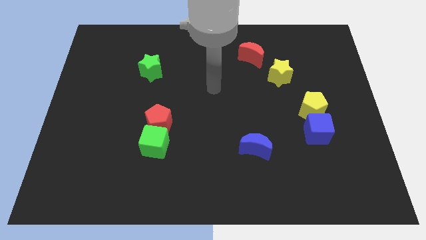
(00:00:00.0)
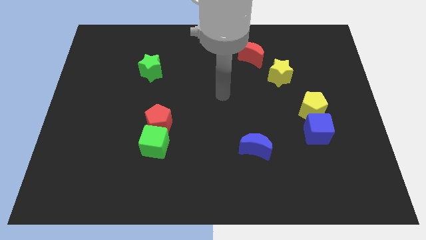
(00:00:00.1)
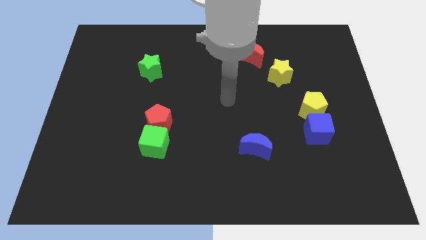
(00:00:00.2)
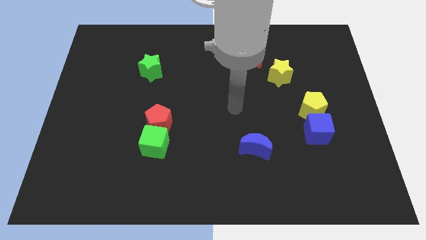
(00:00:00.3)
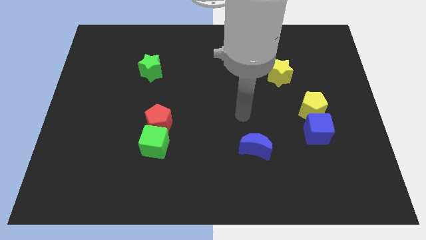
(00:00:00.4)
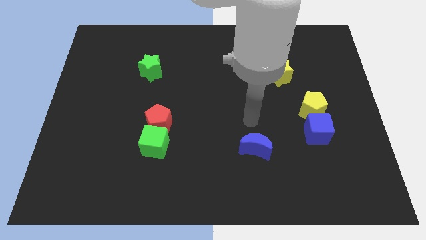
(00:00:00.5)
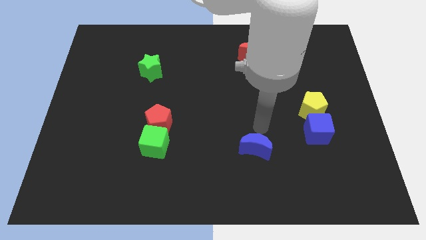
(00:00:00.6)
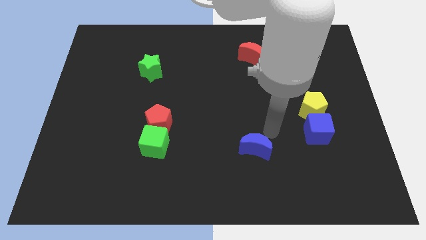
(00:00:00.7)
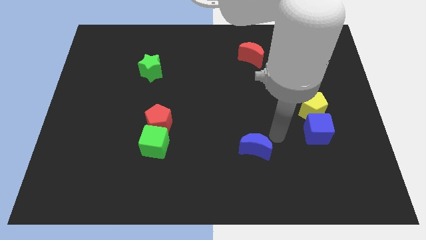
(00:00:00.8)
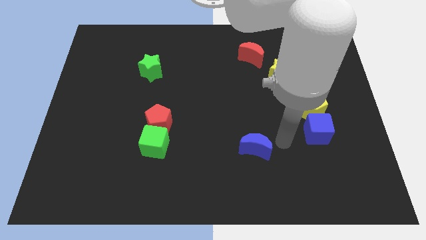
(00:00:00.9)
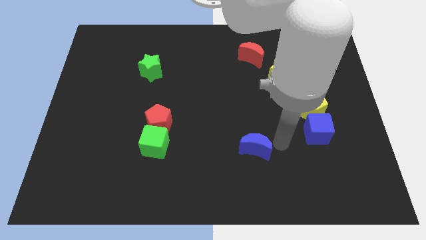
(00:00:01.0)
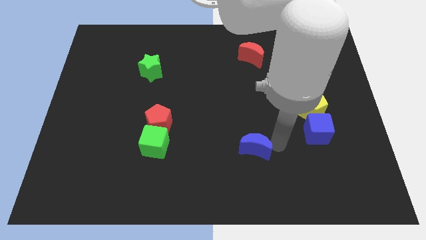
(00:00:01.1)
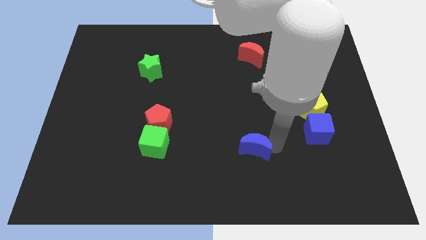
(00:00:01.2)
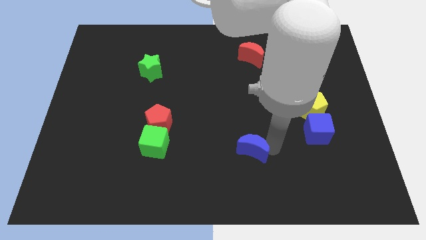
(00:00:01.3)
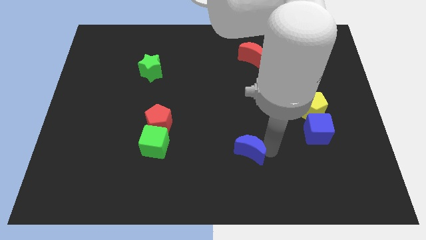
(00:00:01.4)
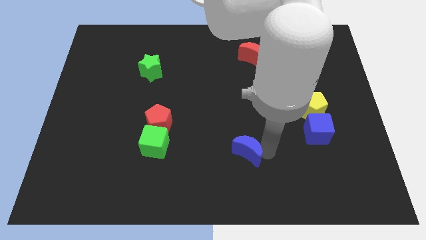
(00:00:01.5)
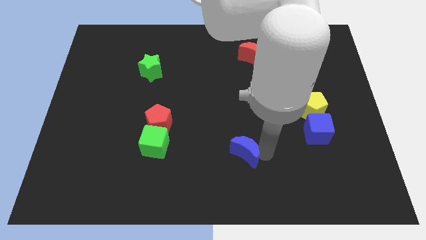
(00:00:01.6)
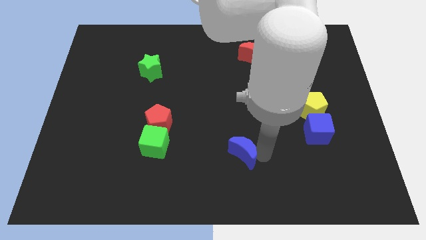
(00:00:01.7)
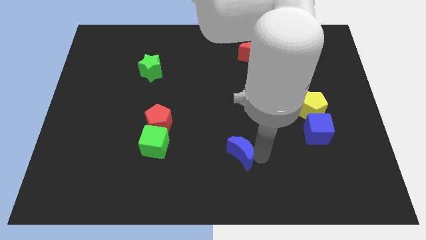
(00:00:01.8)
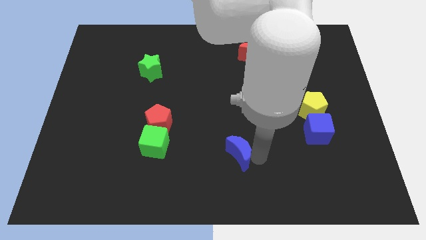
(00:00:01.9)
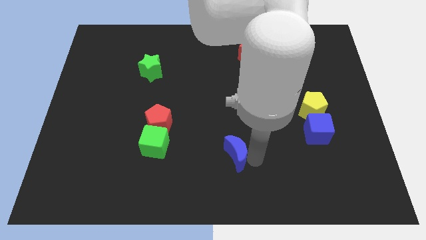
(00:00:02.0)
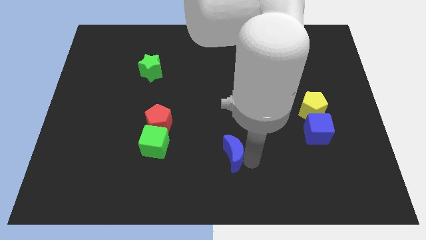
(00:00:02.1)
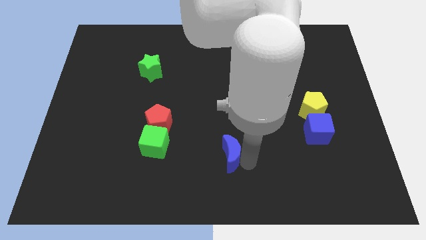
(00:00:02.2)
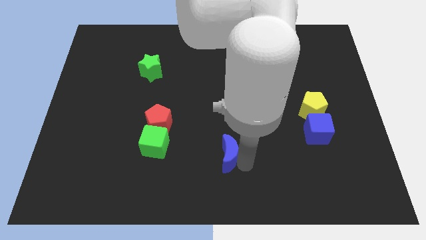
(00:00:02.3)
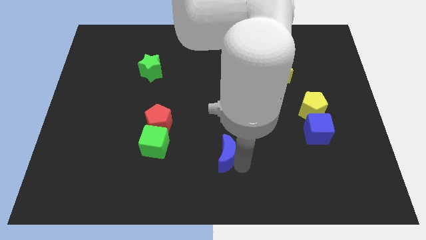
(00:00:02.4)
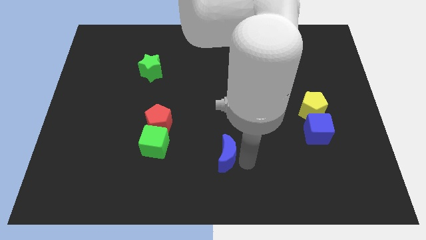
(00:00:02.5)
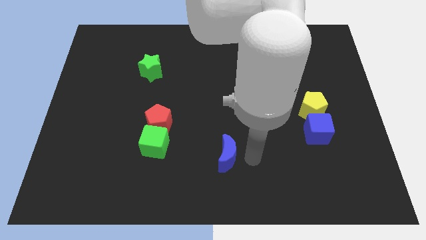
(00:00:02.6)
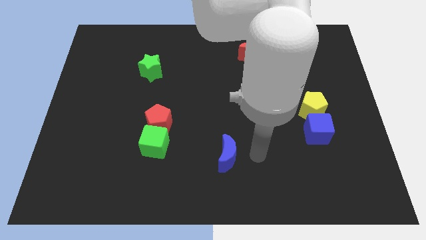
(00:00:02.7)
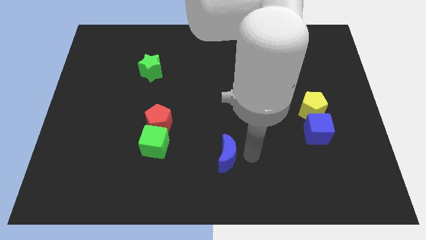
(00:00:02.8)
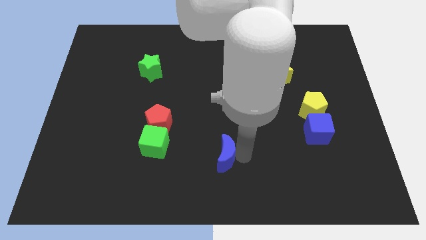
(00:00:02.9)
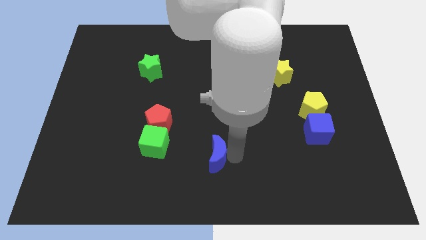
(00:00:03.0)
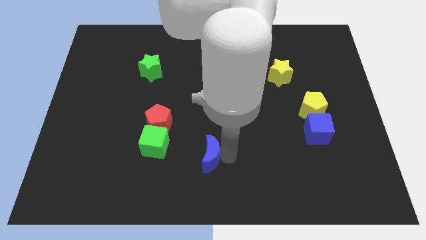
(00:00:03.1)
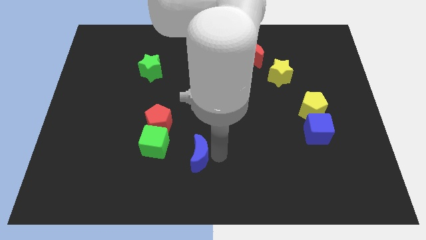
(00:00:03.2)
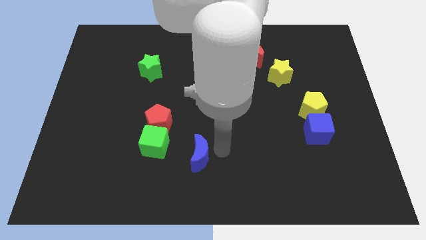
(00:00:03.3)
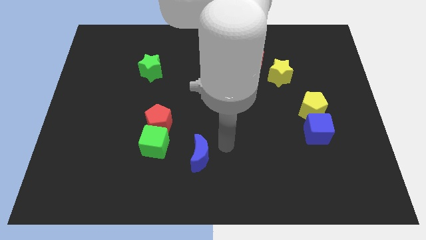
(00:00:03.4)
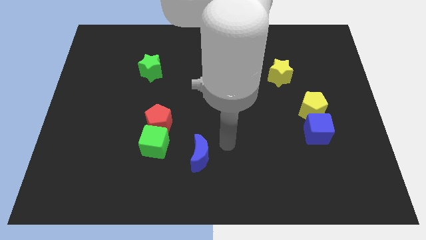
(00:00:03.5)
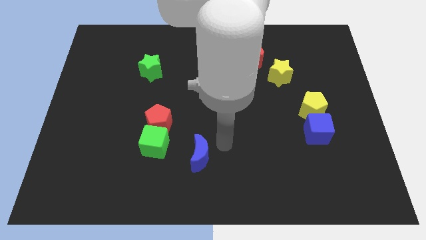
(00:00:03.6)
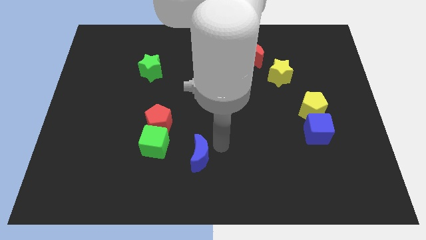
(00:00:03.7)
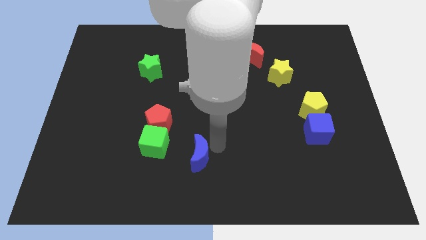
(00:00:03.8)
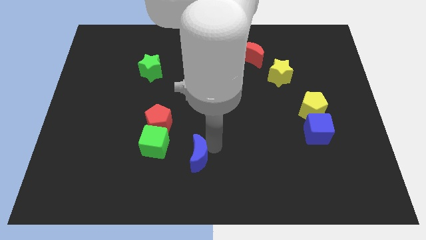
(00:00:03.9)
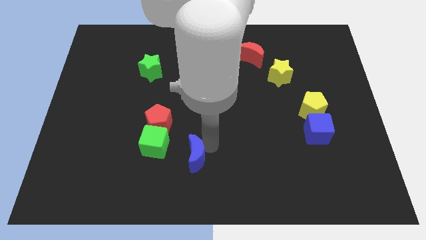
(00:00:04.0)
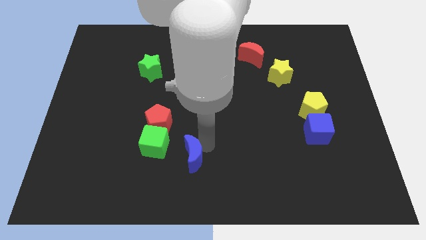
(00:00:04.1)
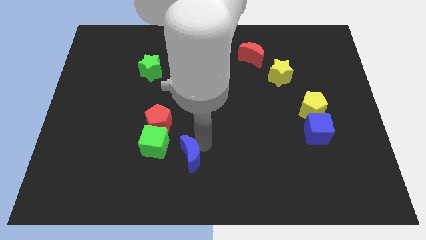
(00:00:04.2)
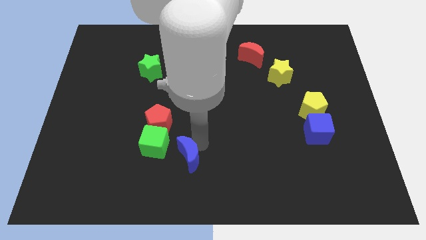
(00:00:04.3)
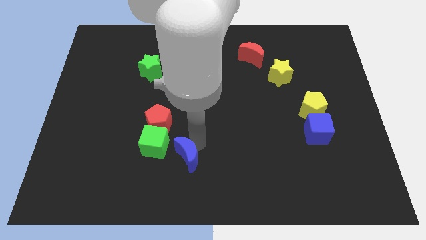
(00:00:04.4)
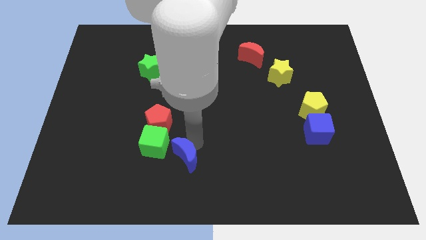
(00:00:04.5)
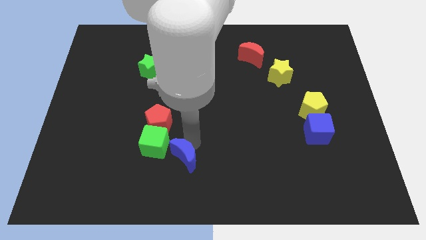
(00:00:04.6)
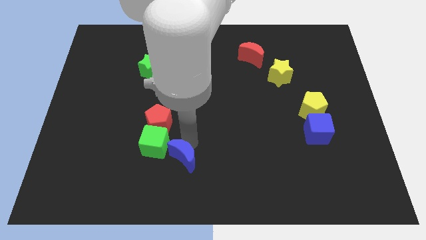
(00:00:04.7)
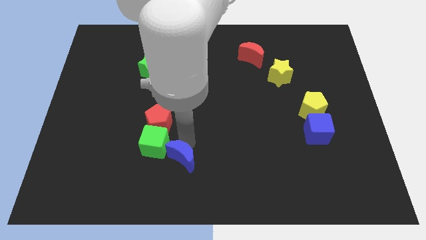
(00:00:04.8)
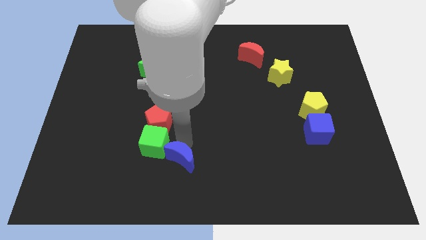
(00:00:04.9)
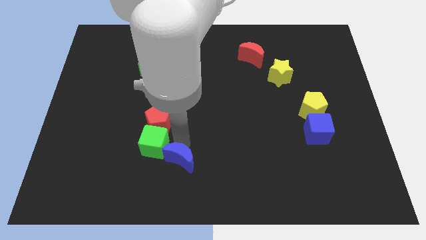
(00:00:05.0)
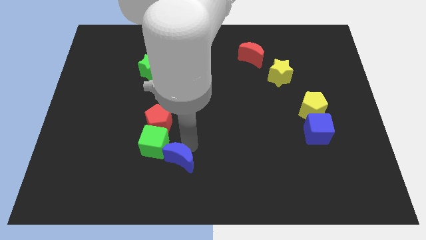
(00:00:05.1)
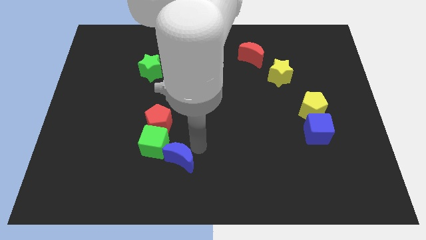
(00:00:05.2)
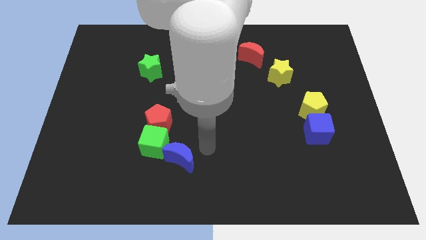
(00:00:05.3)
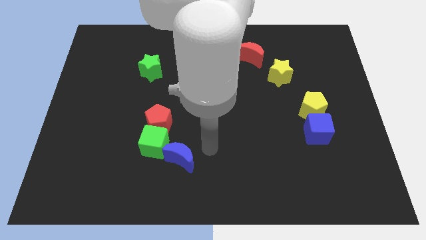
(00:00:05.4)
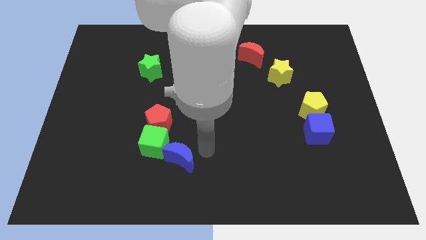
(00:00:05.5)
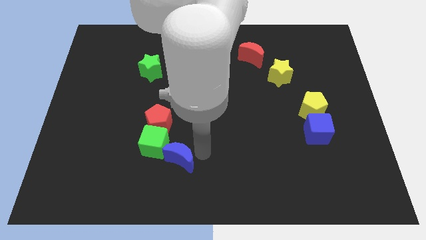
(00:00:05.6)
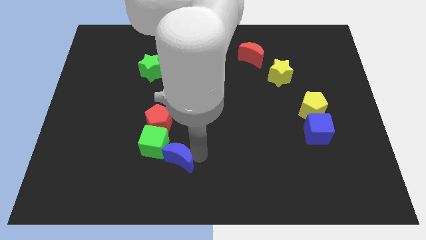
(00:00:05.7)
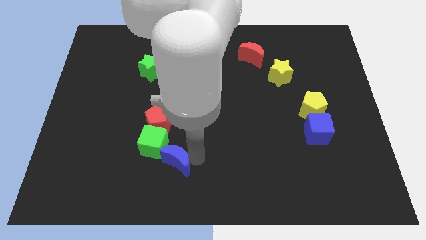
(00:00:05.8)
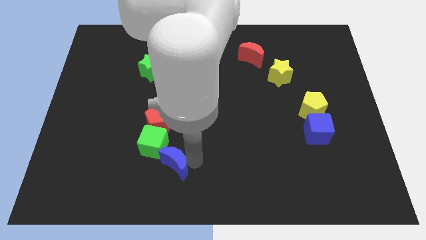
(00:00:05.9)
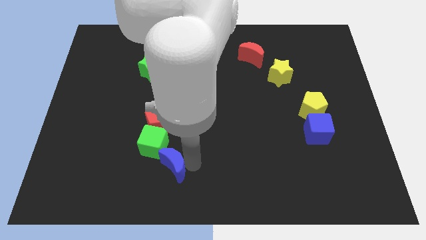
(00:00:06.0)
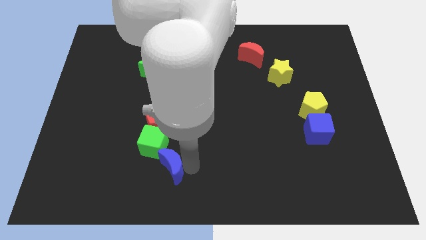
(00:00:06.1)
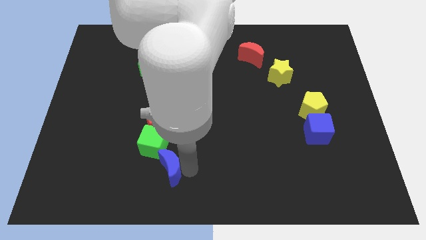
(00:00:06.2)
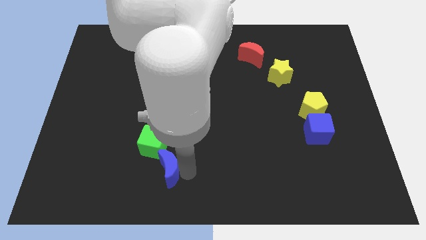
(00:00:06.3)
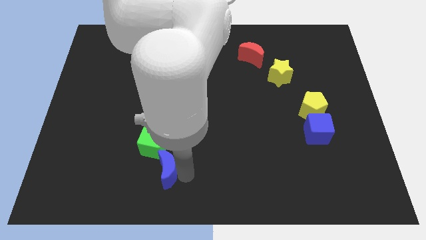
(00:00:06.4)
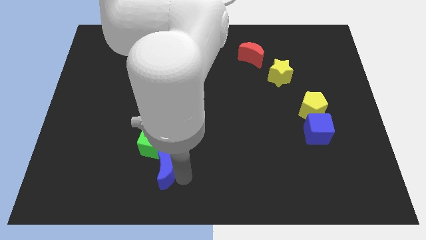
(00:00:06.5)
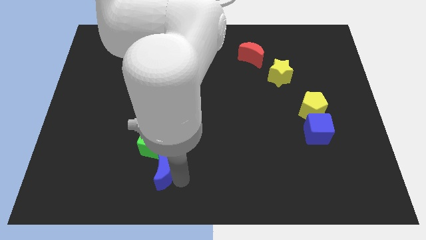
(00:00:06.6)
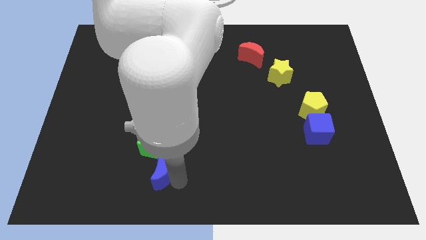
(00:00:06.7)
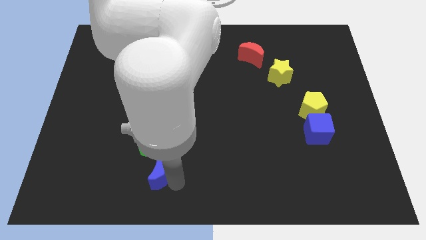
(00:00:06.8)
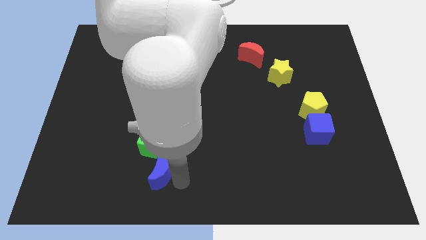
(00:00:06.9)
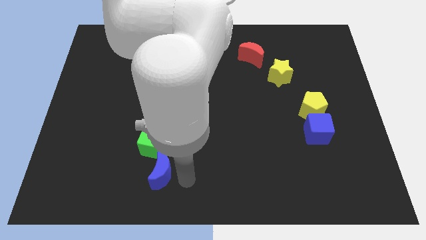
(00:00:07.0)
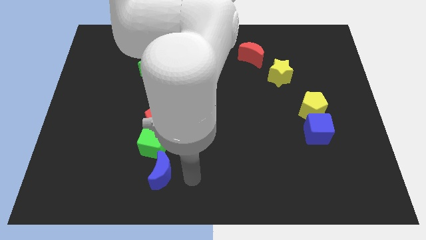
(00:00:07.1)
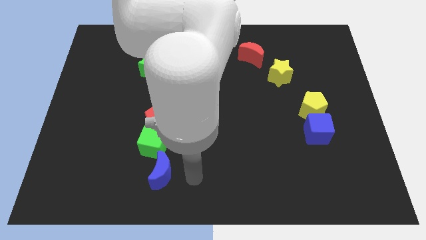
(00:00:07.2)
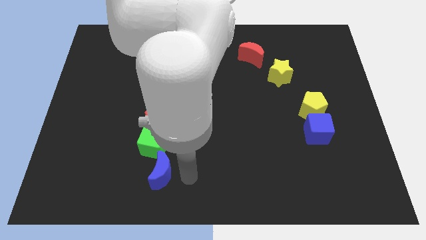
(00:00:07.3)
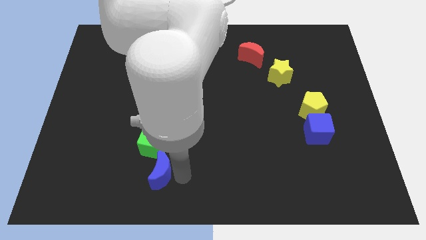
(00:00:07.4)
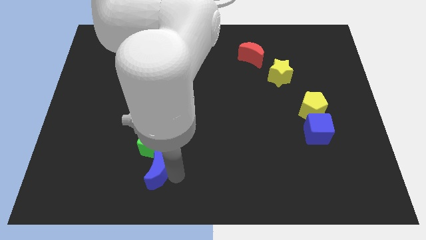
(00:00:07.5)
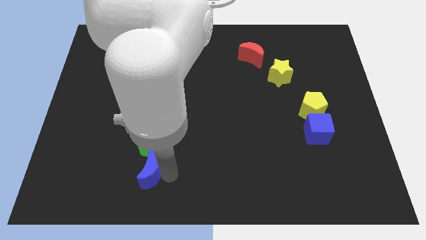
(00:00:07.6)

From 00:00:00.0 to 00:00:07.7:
push the blue moon left
